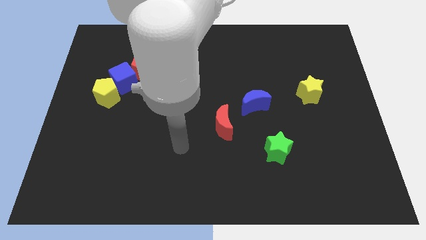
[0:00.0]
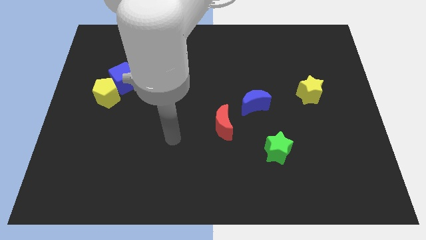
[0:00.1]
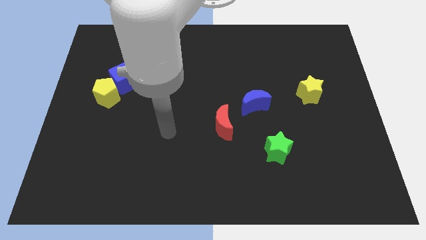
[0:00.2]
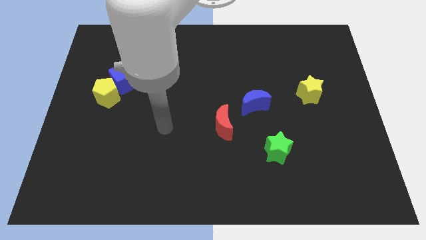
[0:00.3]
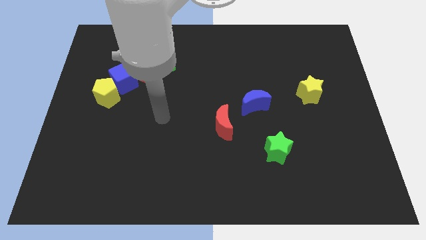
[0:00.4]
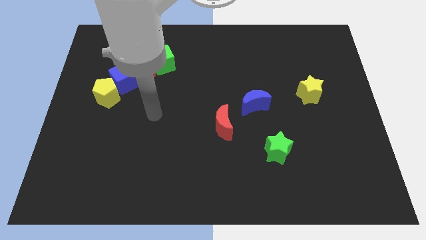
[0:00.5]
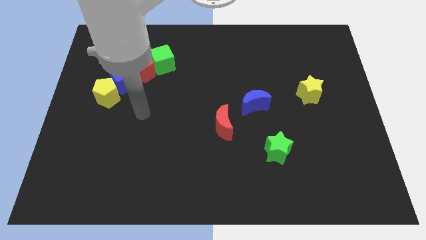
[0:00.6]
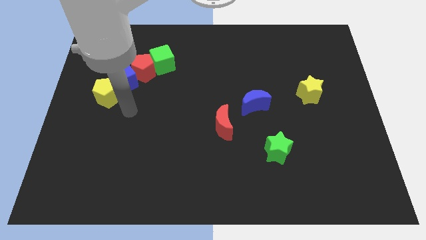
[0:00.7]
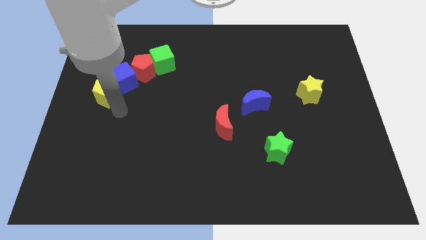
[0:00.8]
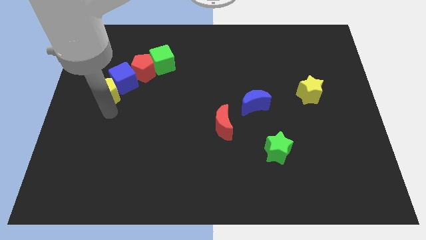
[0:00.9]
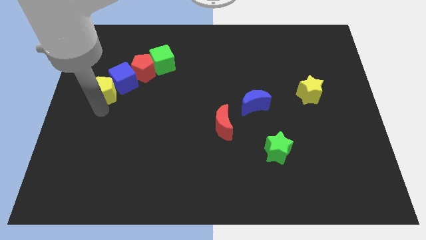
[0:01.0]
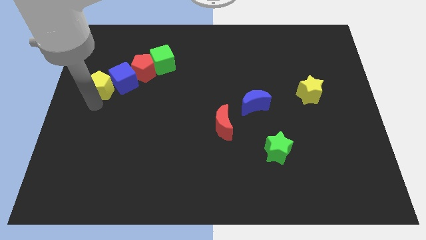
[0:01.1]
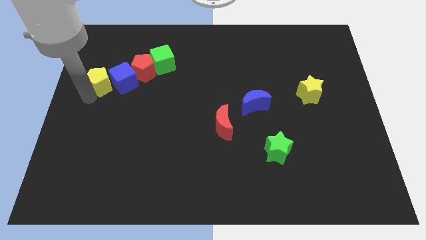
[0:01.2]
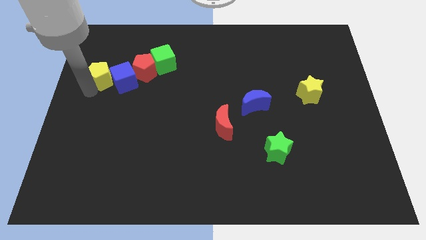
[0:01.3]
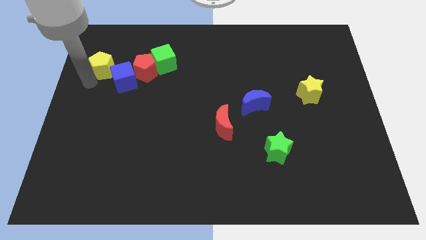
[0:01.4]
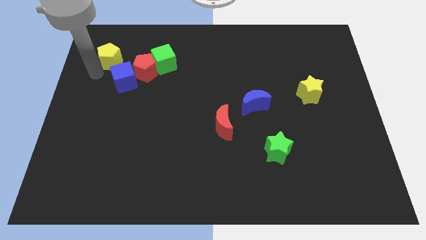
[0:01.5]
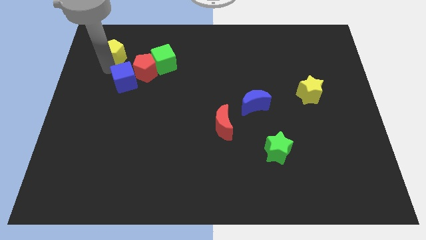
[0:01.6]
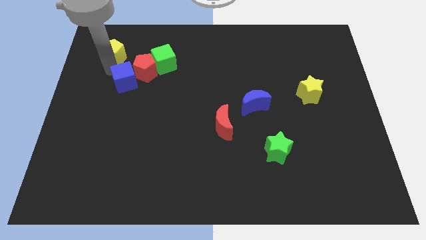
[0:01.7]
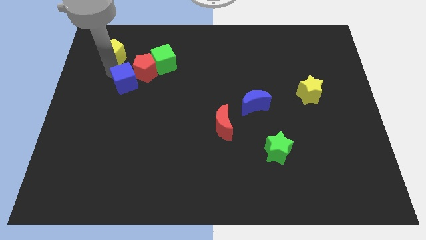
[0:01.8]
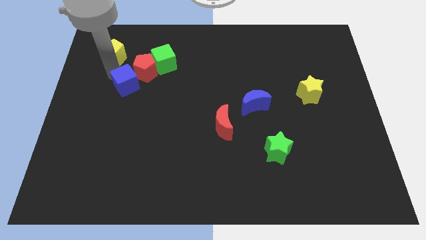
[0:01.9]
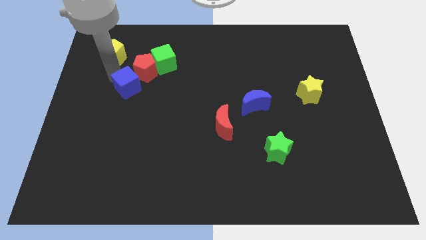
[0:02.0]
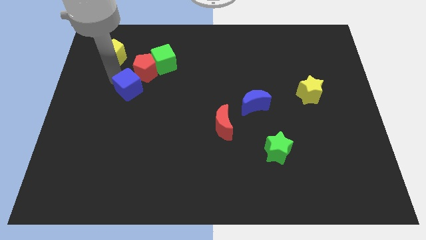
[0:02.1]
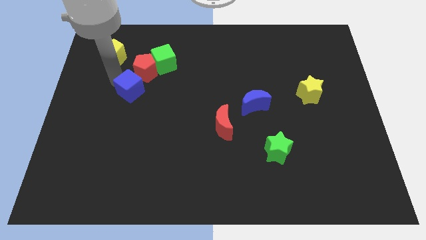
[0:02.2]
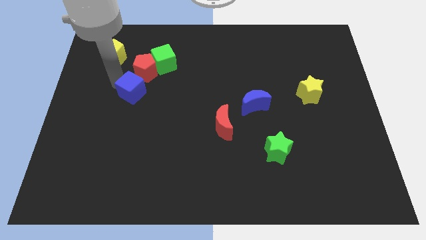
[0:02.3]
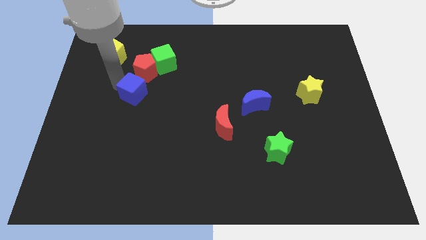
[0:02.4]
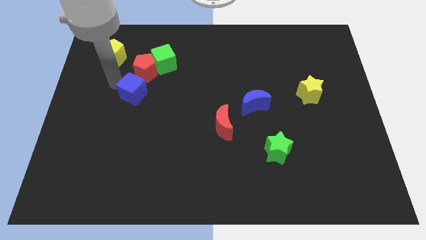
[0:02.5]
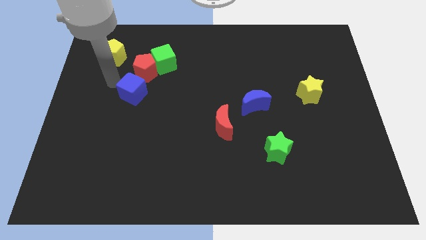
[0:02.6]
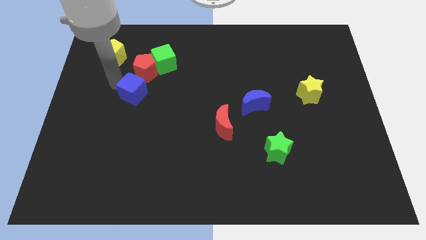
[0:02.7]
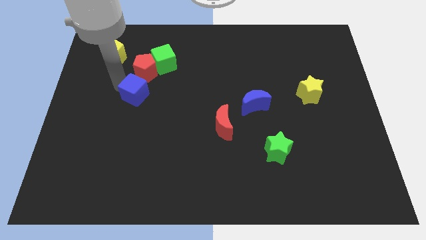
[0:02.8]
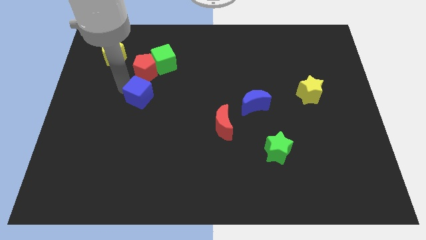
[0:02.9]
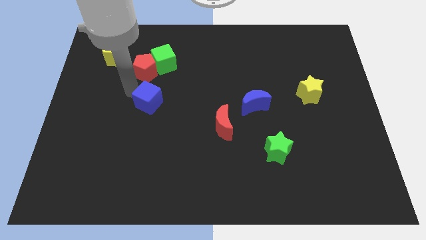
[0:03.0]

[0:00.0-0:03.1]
move the blue cube a little bit diagonally down and right

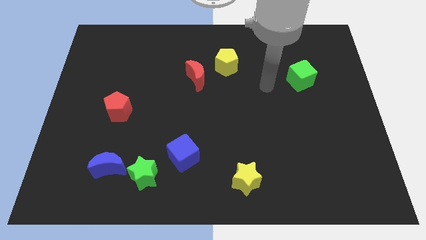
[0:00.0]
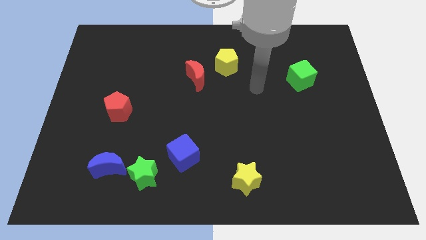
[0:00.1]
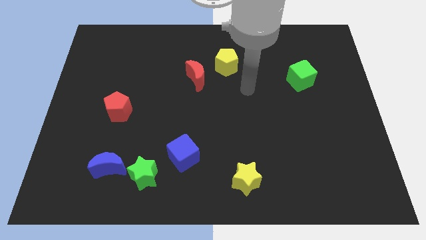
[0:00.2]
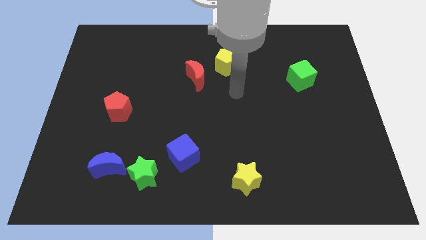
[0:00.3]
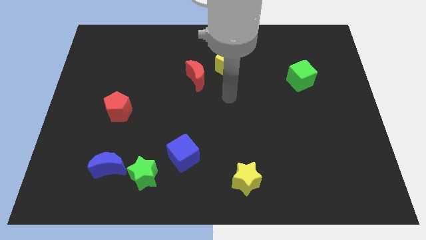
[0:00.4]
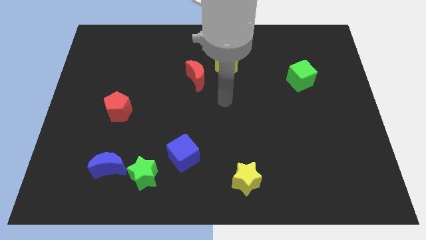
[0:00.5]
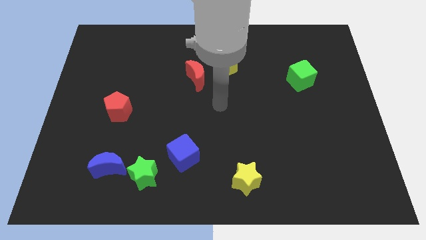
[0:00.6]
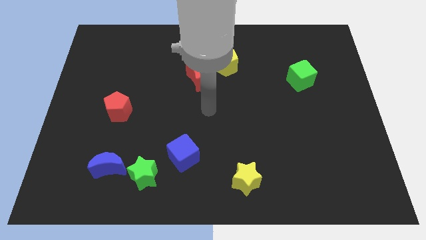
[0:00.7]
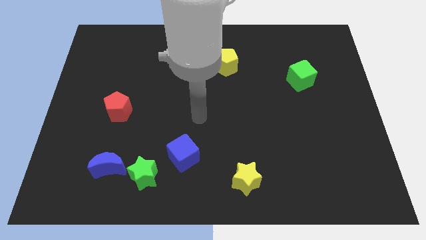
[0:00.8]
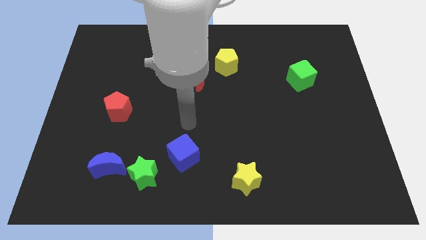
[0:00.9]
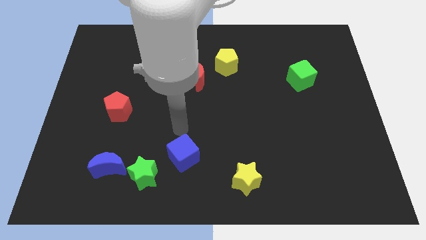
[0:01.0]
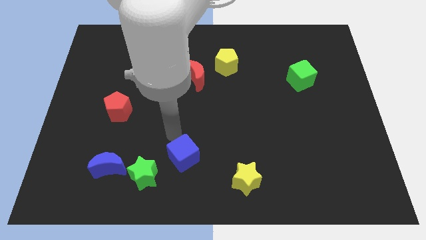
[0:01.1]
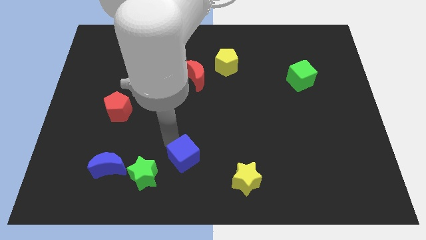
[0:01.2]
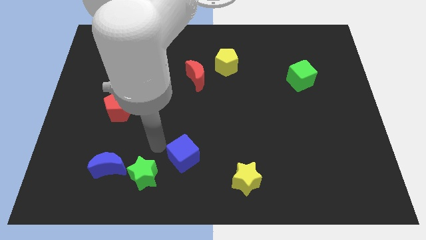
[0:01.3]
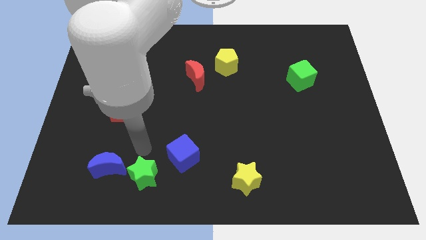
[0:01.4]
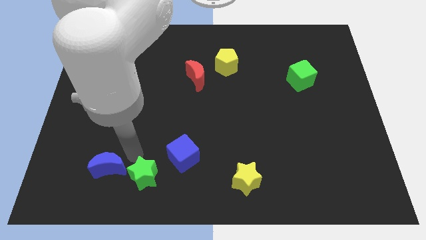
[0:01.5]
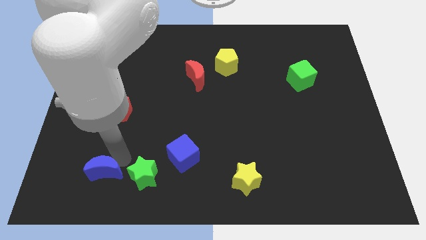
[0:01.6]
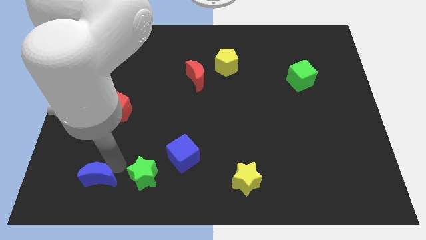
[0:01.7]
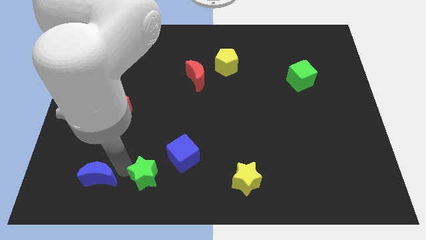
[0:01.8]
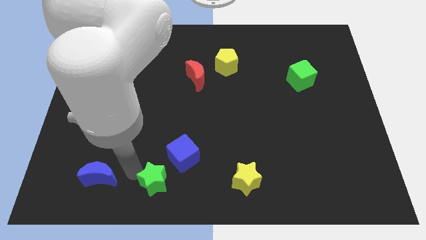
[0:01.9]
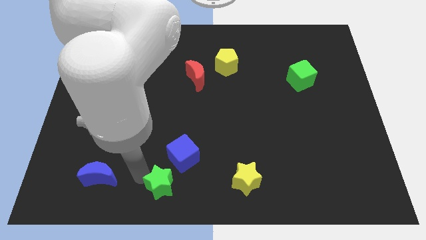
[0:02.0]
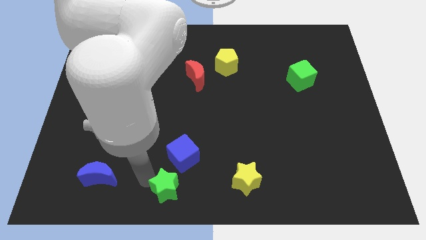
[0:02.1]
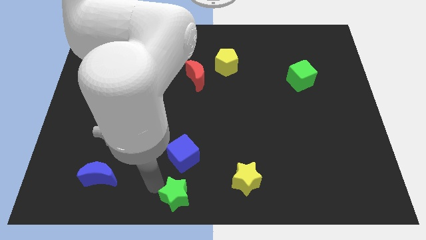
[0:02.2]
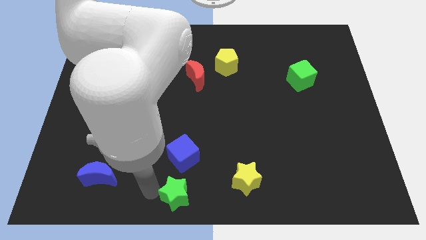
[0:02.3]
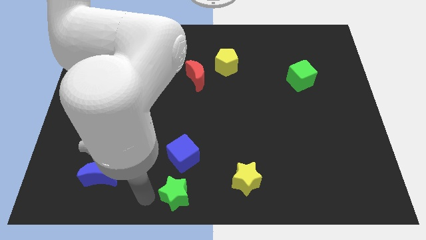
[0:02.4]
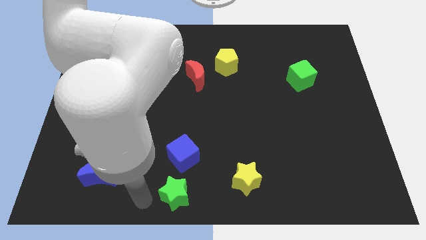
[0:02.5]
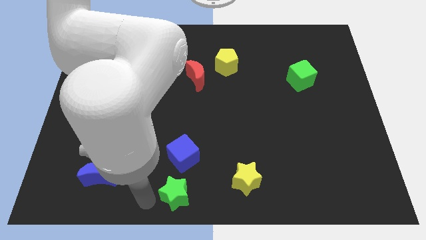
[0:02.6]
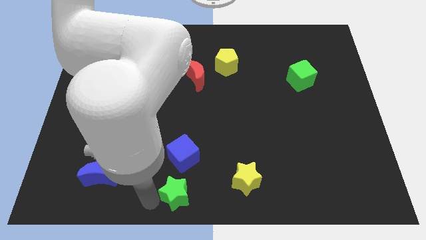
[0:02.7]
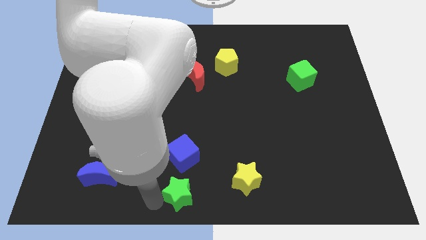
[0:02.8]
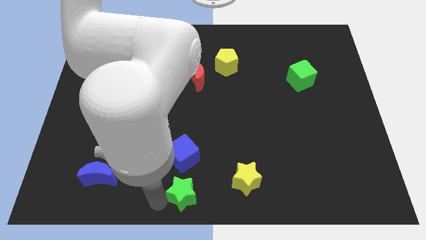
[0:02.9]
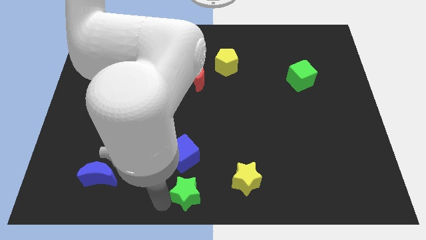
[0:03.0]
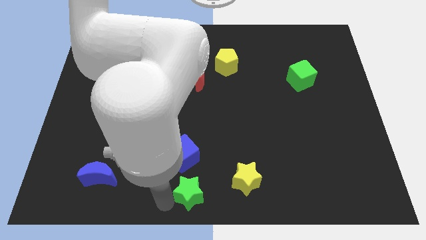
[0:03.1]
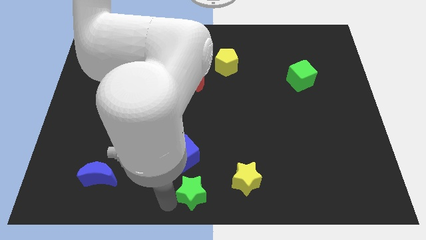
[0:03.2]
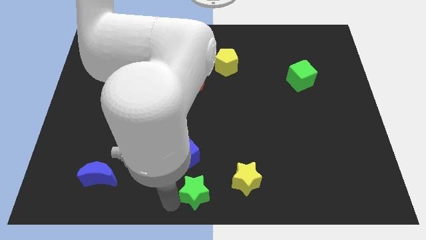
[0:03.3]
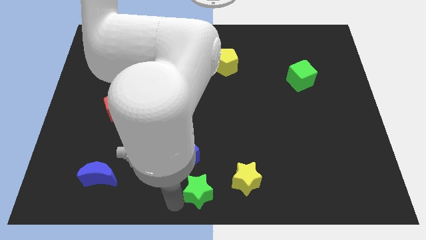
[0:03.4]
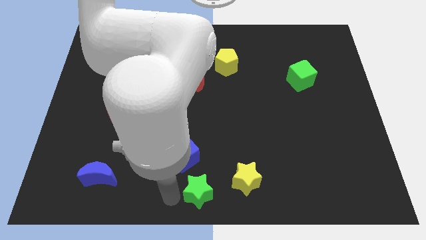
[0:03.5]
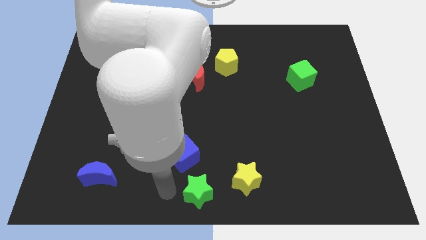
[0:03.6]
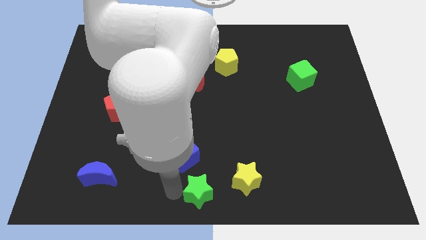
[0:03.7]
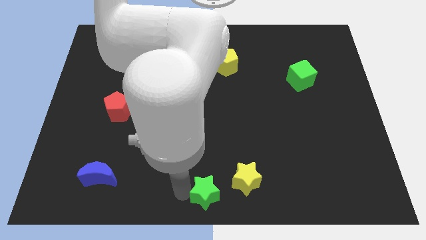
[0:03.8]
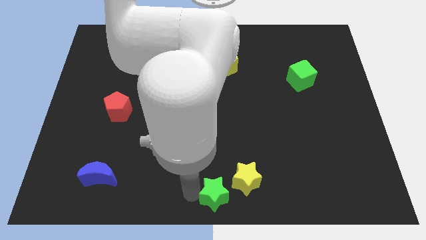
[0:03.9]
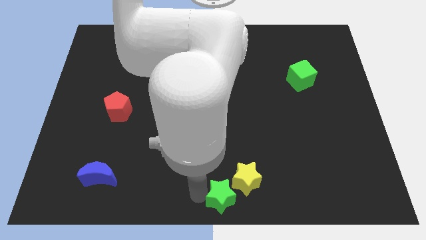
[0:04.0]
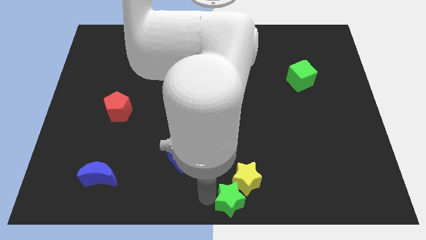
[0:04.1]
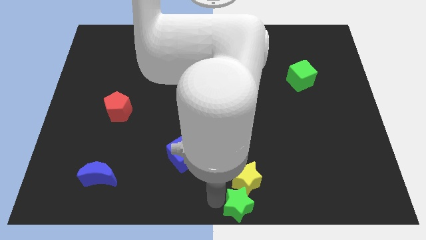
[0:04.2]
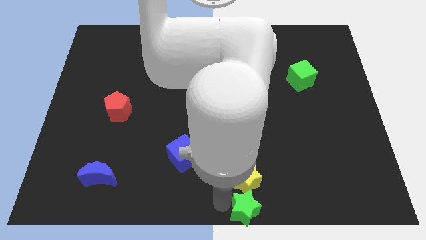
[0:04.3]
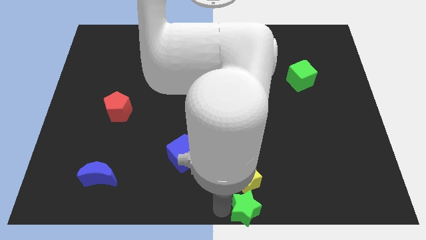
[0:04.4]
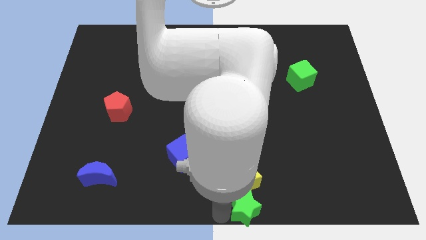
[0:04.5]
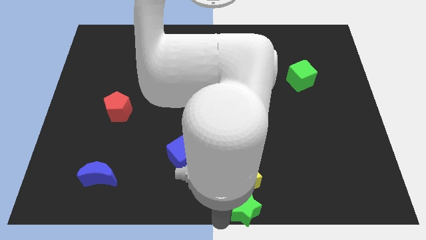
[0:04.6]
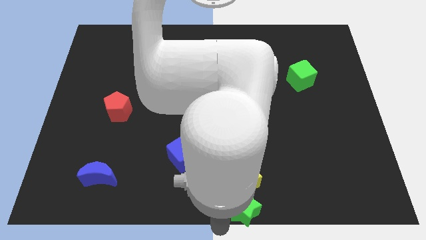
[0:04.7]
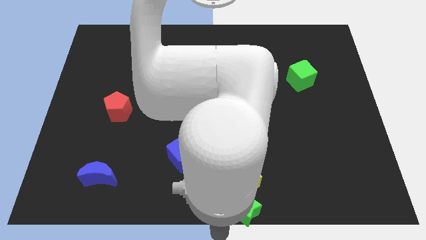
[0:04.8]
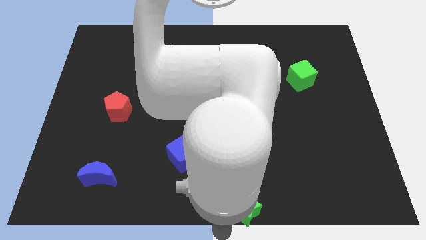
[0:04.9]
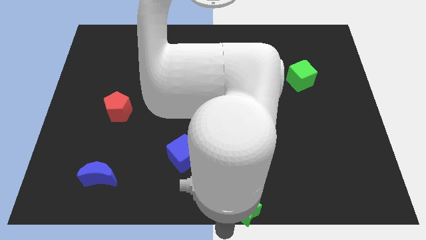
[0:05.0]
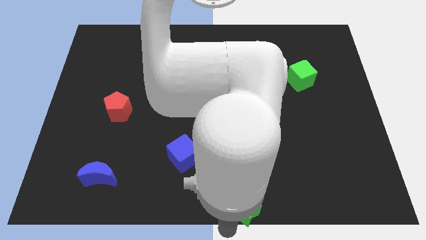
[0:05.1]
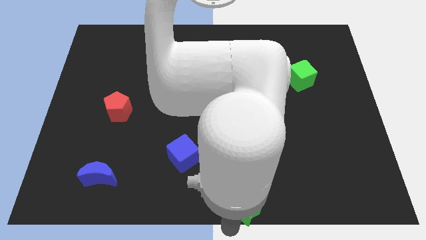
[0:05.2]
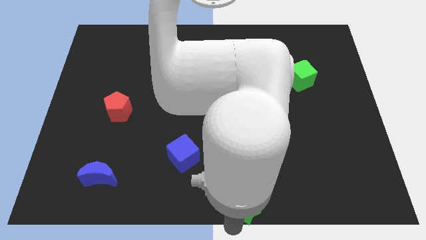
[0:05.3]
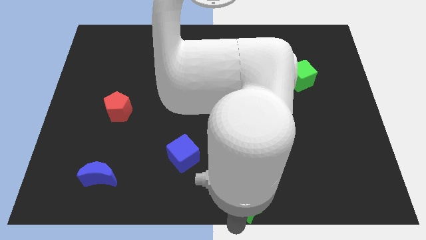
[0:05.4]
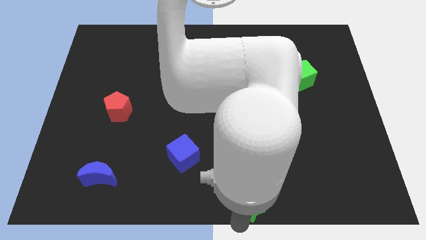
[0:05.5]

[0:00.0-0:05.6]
push the green star right
